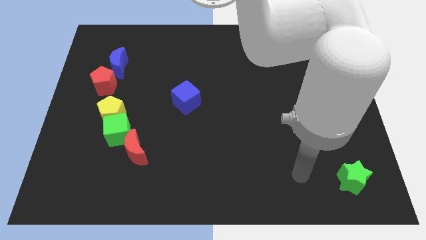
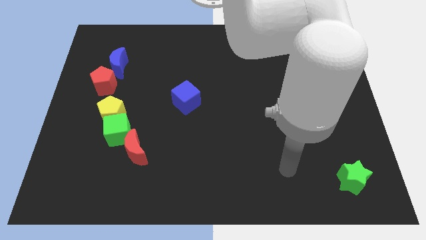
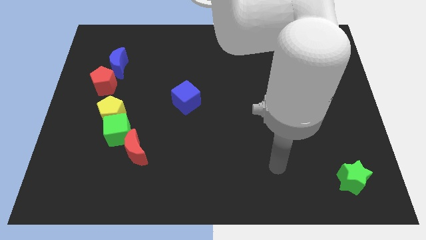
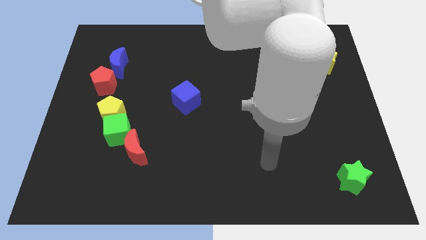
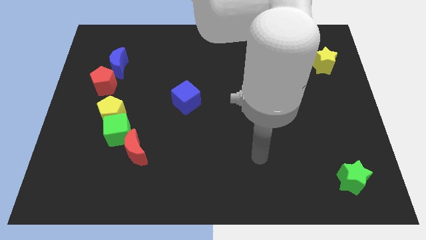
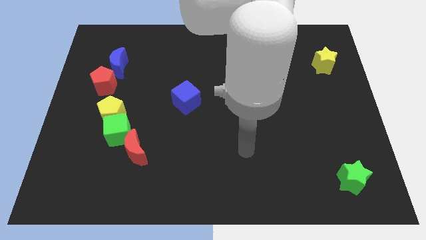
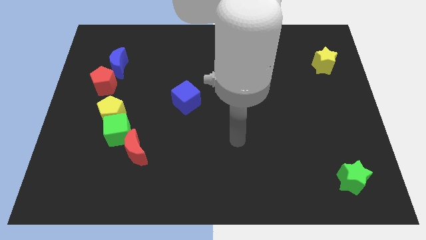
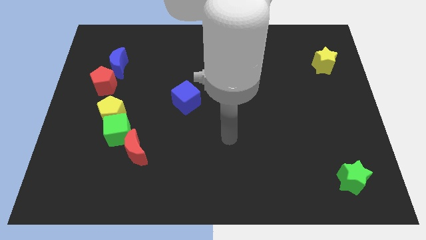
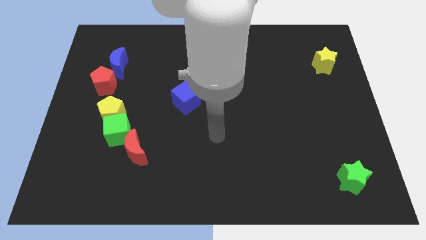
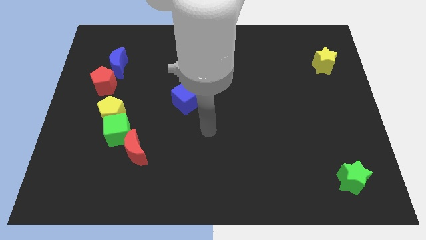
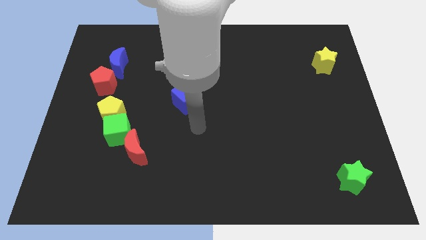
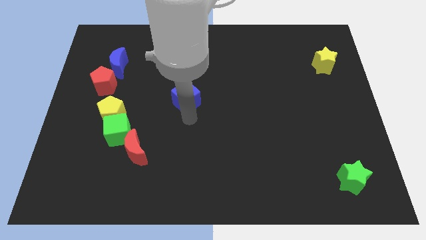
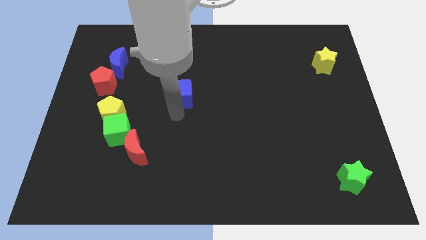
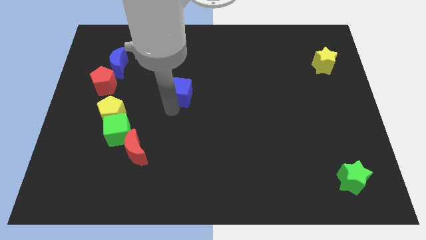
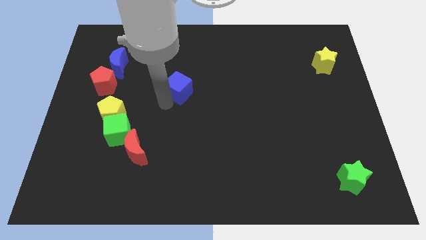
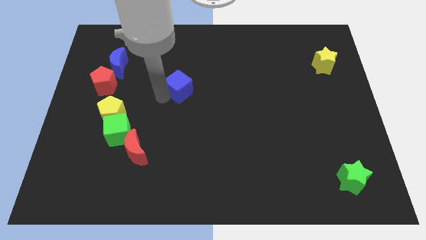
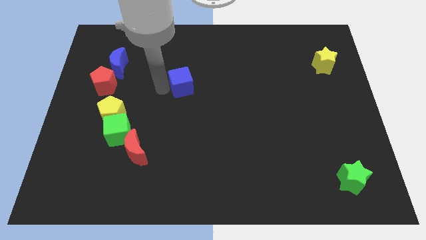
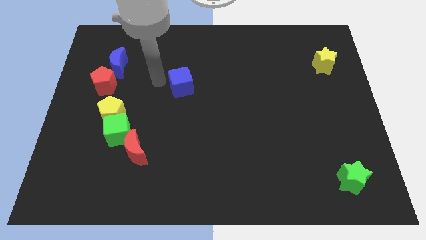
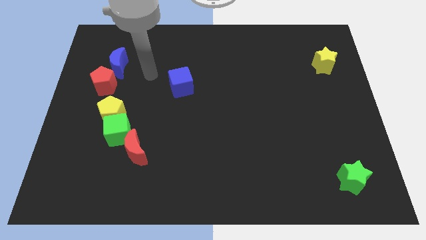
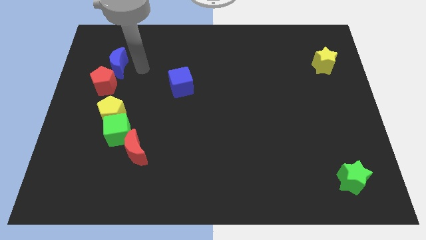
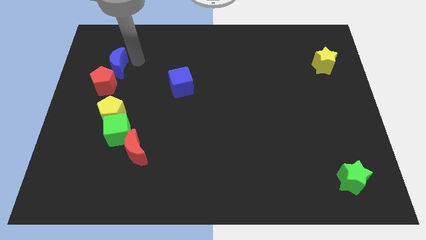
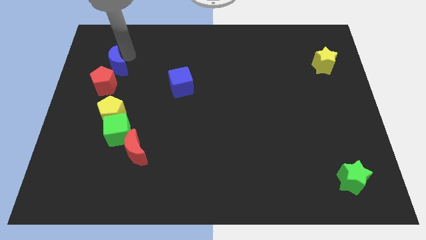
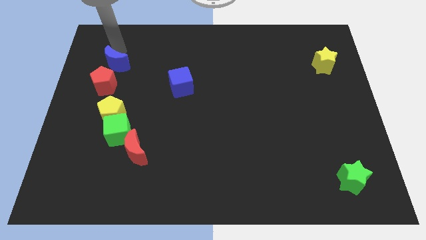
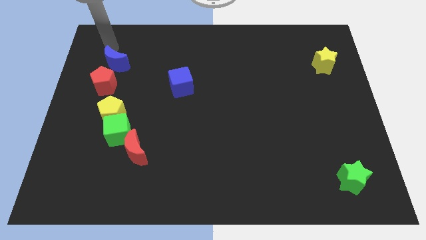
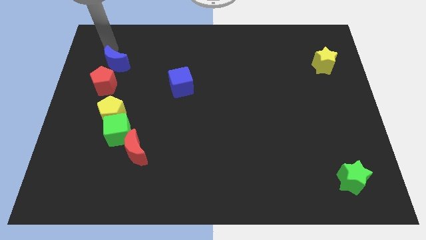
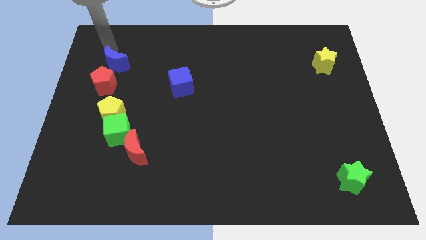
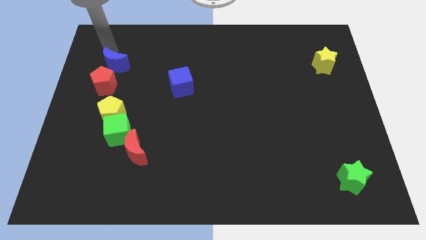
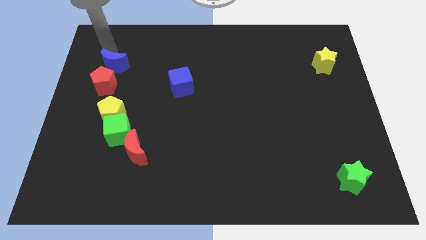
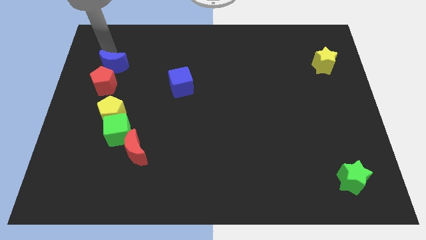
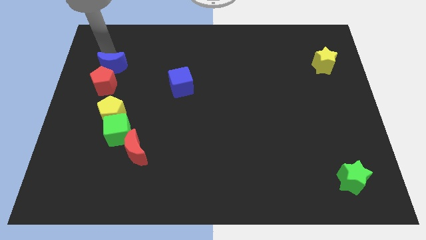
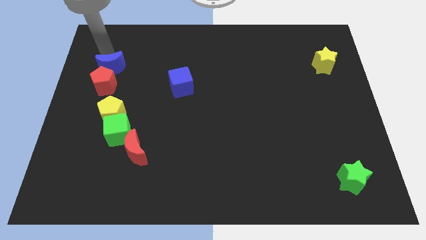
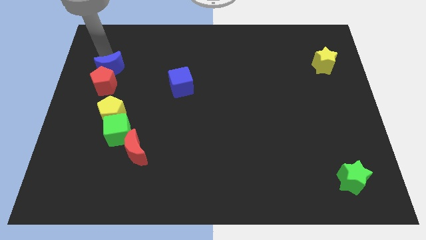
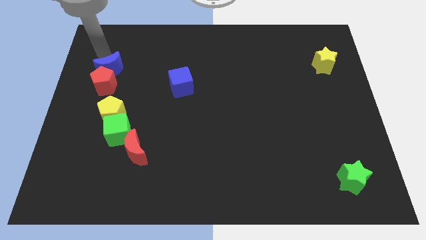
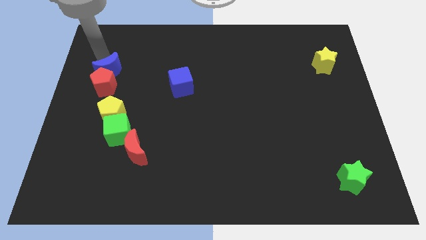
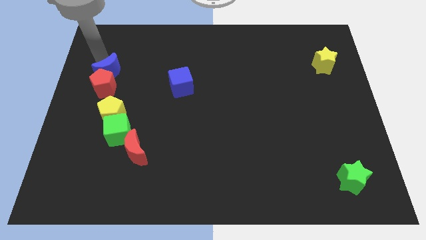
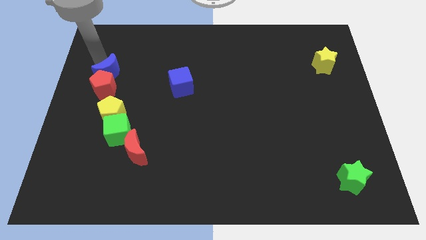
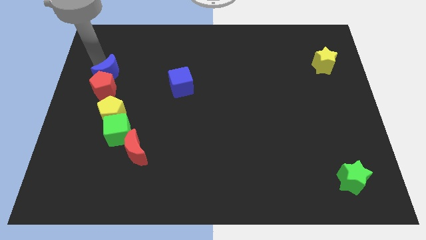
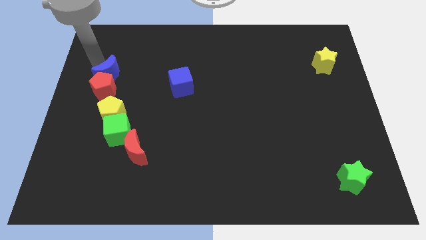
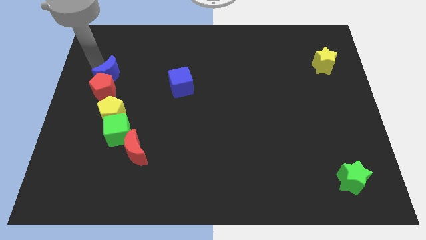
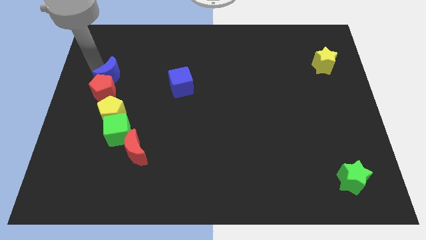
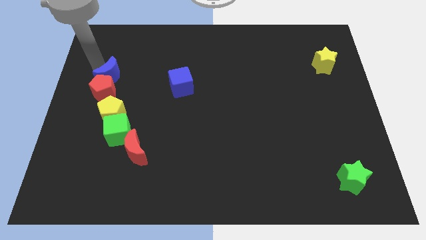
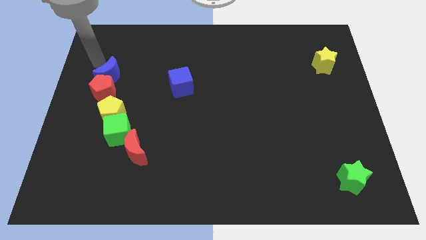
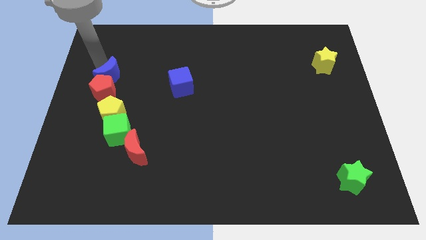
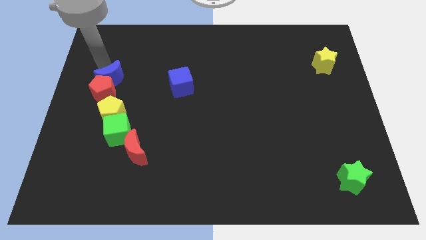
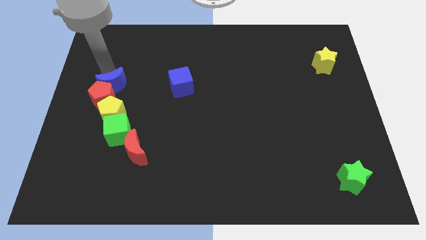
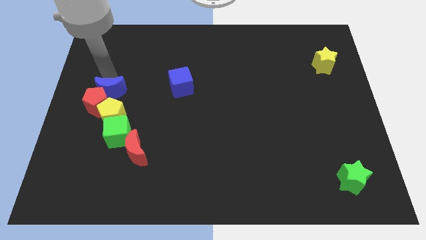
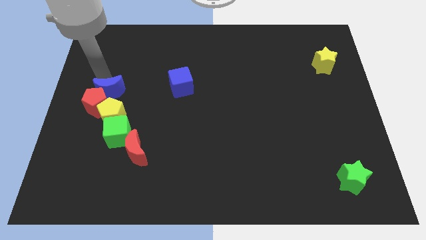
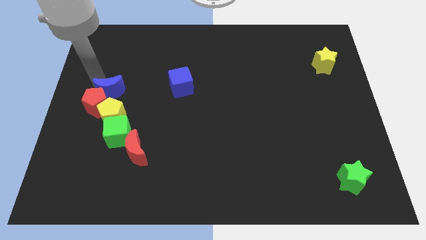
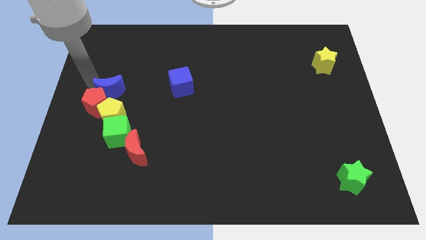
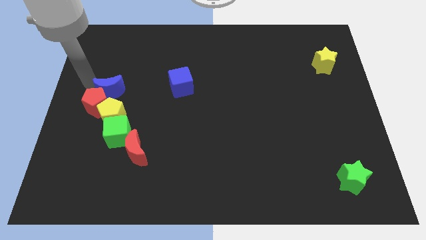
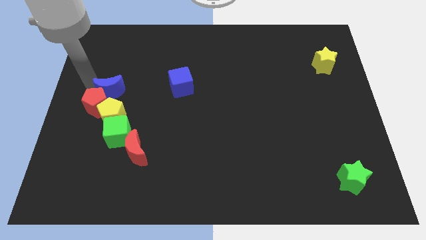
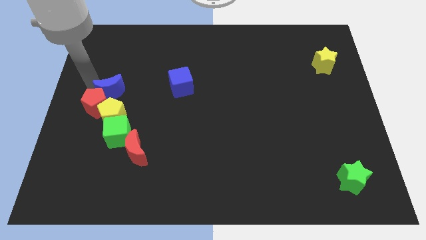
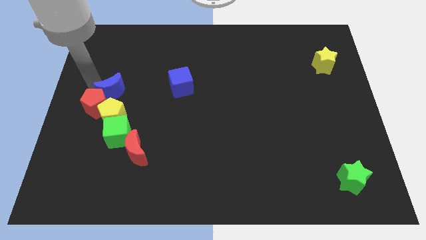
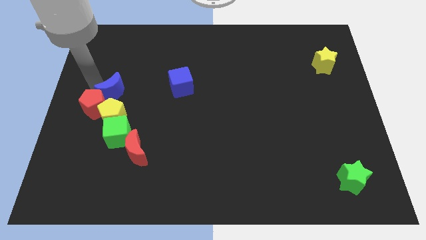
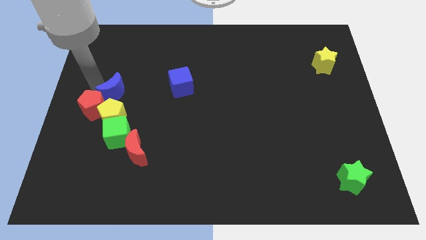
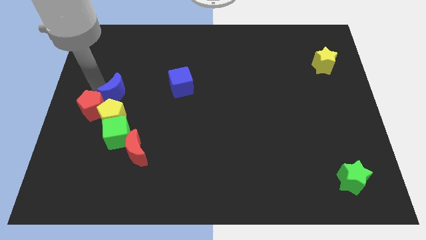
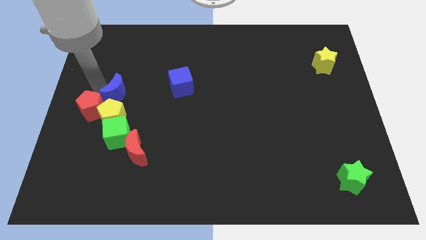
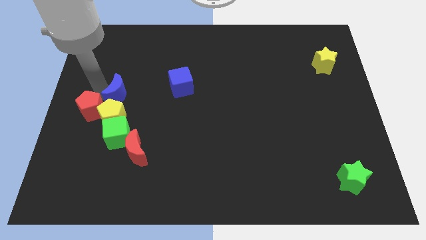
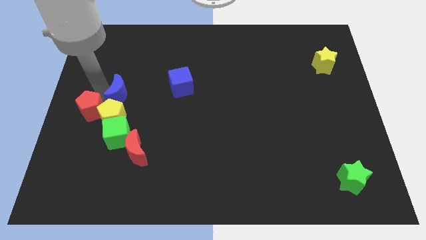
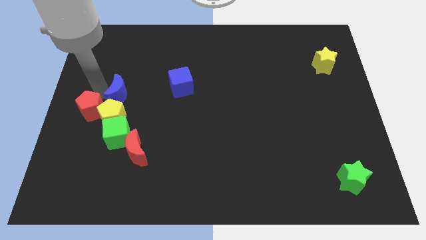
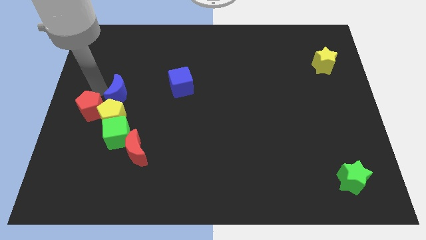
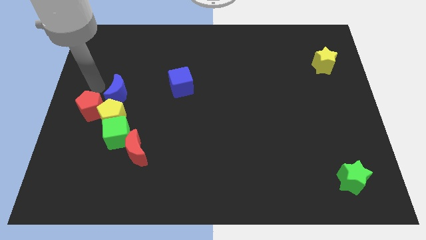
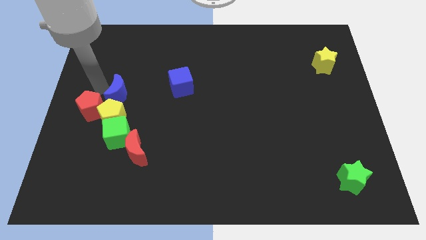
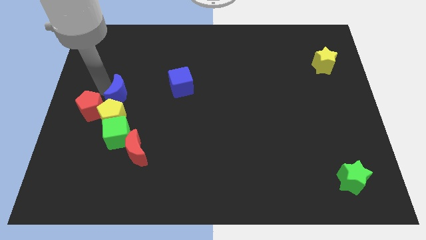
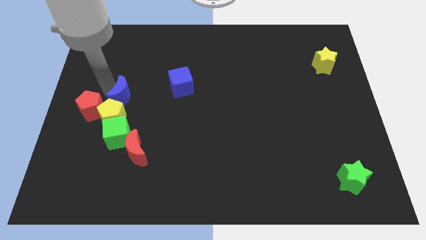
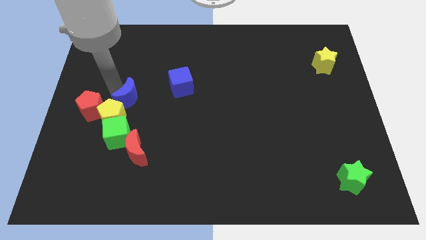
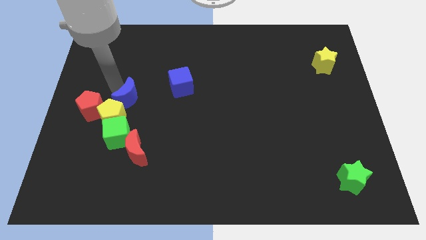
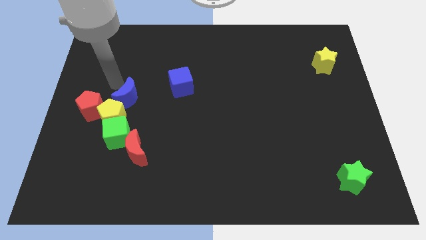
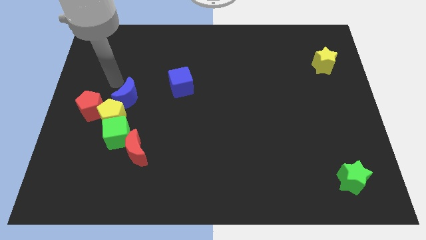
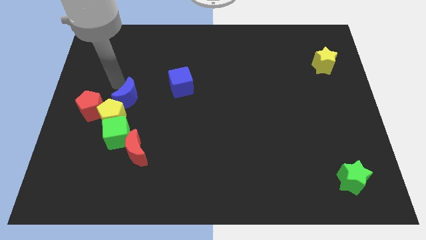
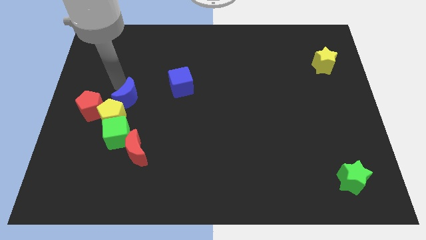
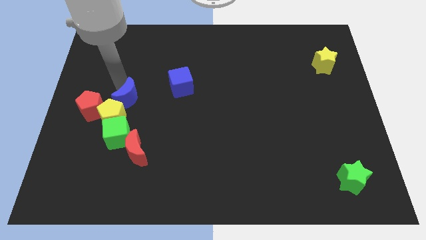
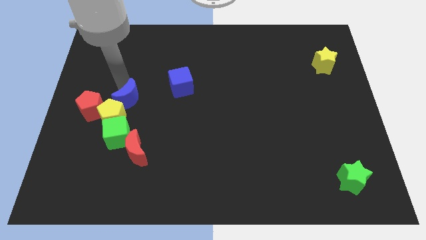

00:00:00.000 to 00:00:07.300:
slide the blue moon to the top of the red moon

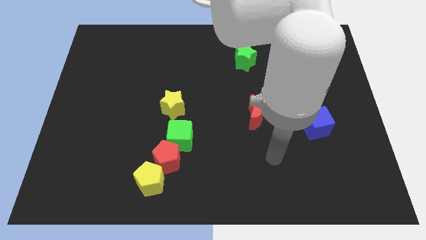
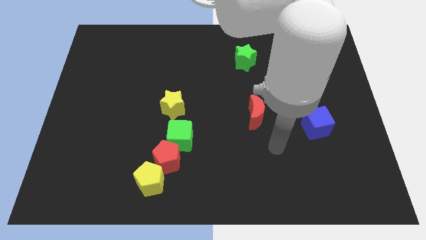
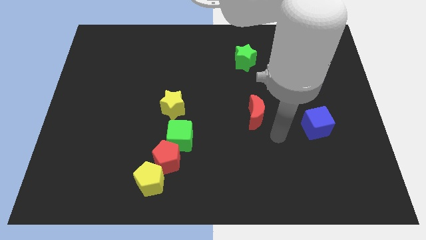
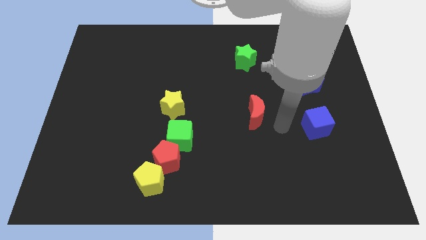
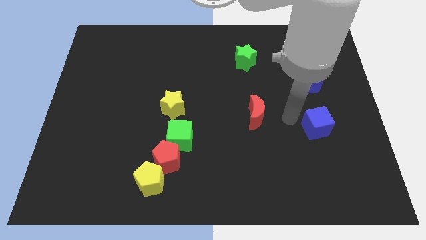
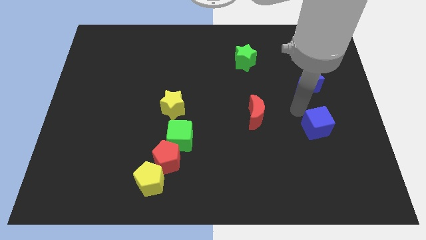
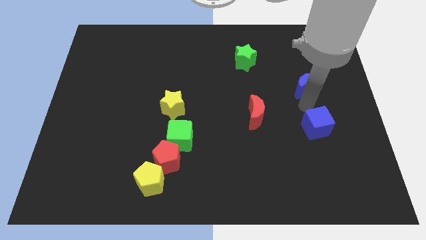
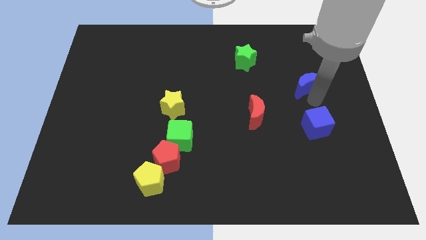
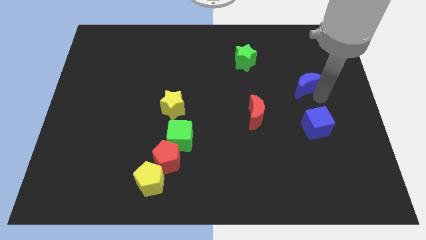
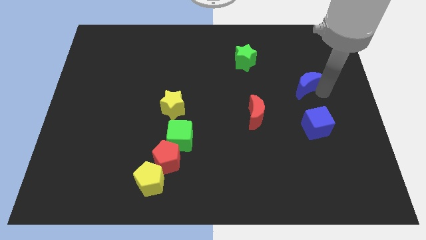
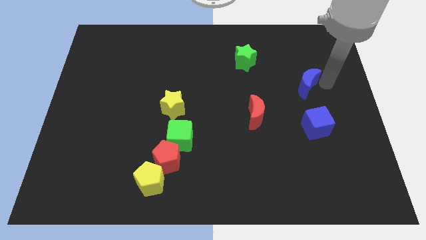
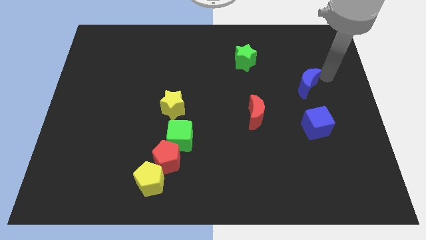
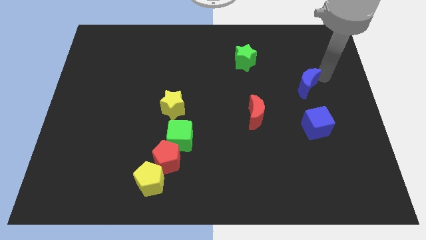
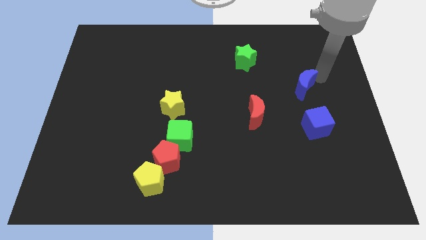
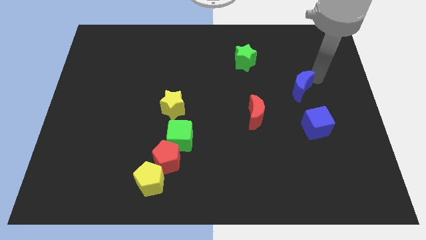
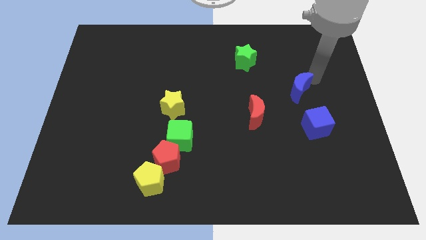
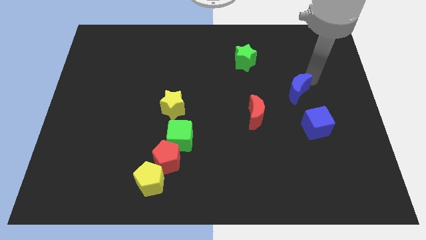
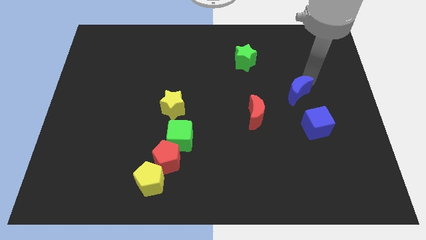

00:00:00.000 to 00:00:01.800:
push the blue moon to the top right of the red moon
